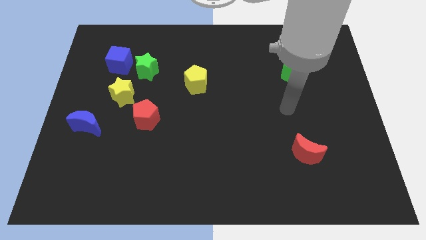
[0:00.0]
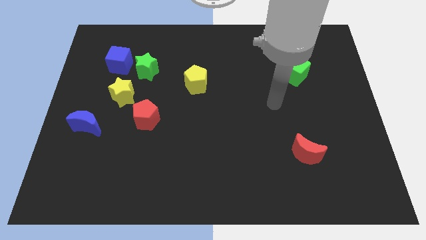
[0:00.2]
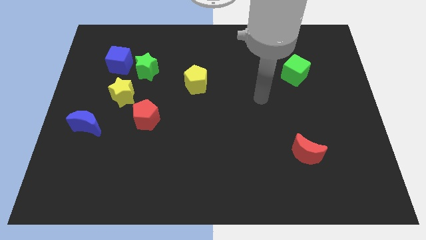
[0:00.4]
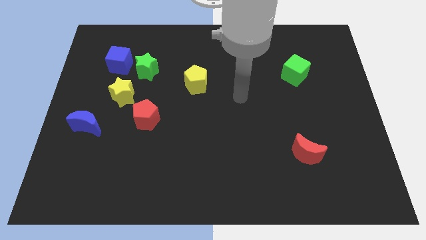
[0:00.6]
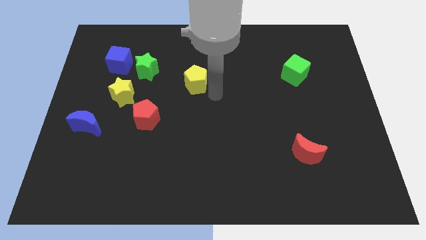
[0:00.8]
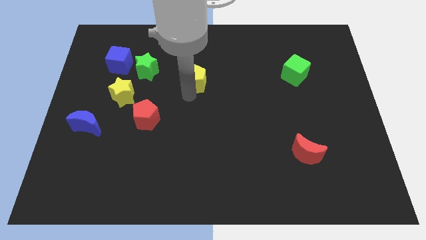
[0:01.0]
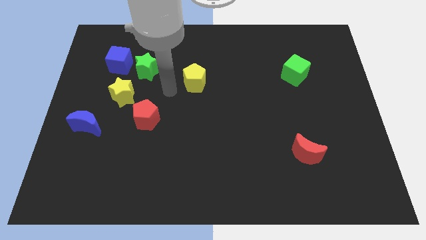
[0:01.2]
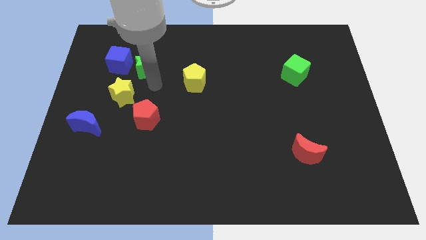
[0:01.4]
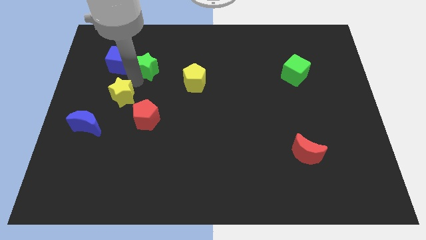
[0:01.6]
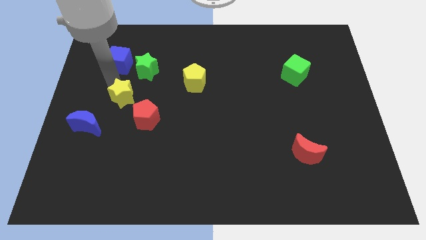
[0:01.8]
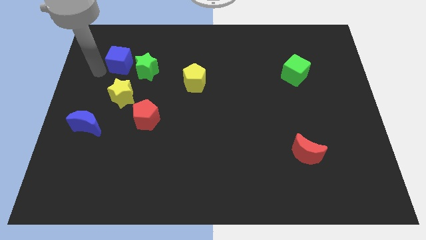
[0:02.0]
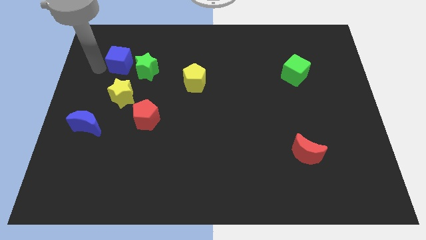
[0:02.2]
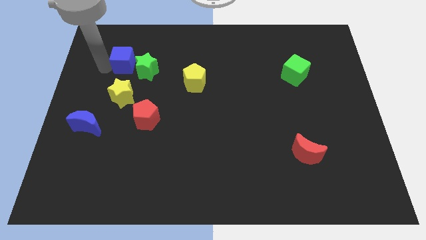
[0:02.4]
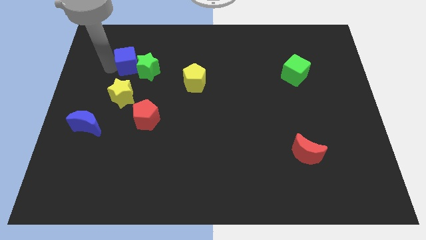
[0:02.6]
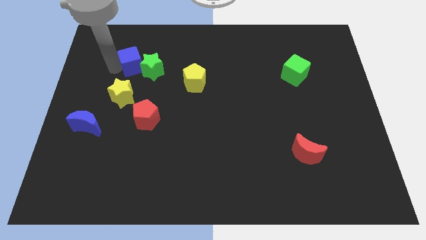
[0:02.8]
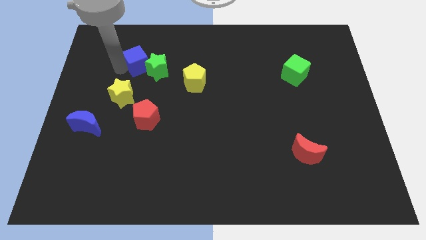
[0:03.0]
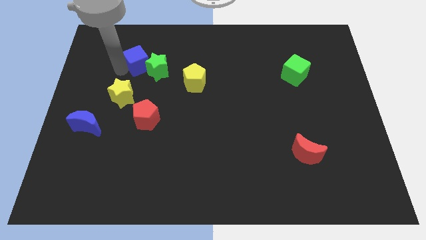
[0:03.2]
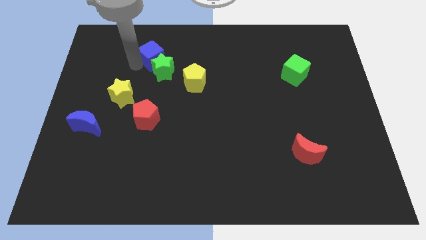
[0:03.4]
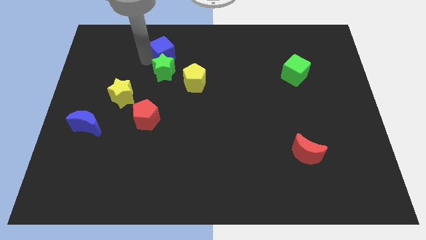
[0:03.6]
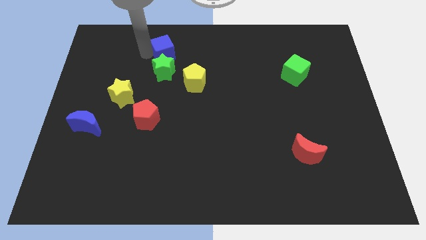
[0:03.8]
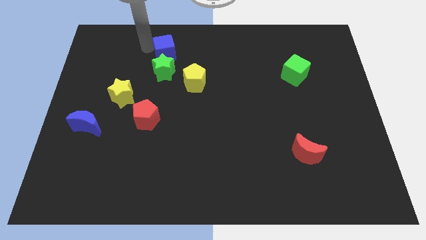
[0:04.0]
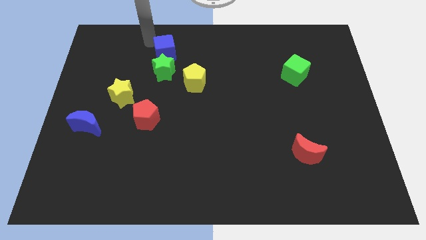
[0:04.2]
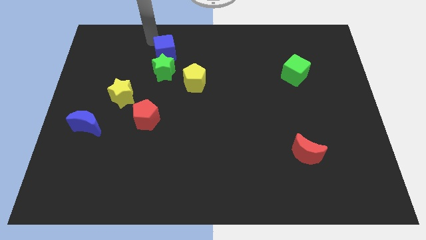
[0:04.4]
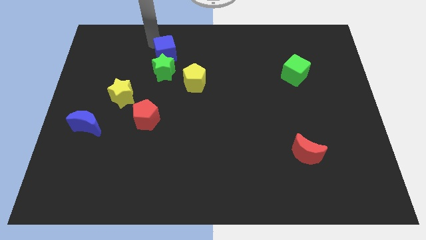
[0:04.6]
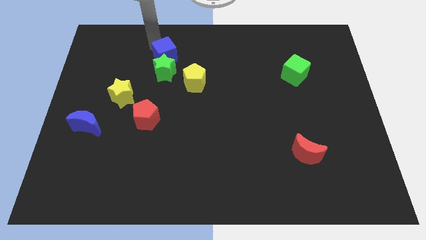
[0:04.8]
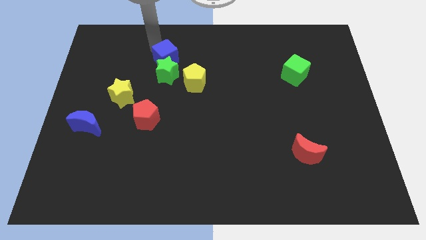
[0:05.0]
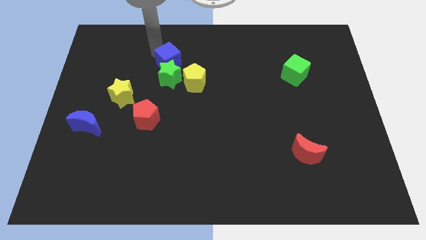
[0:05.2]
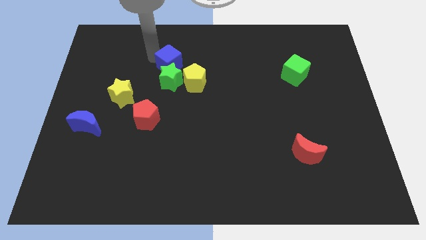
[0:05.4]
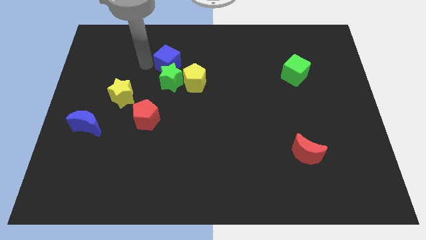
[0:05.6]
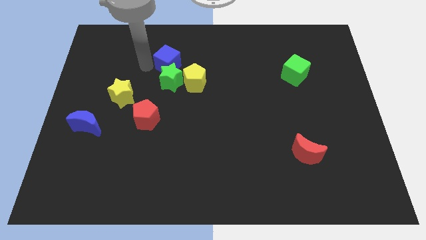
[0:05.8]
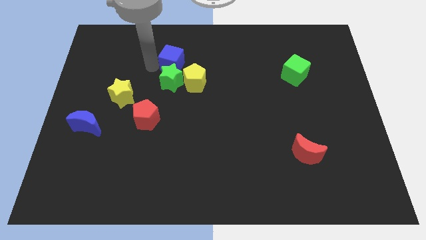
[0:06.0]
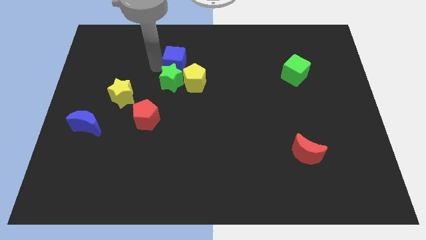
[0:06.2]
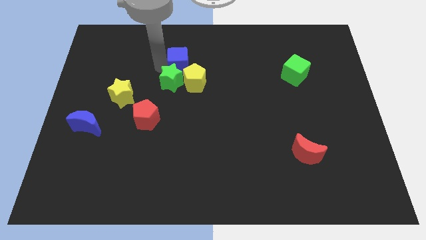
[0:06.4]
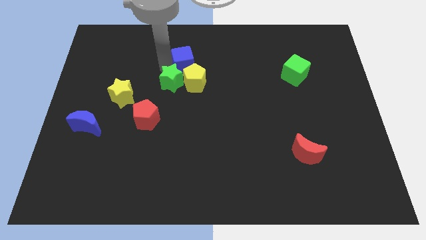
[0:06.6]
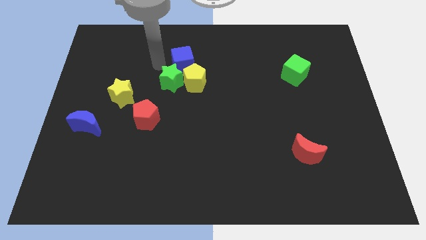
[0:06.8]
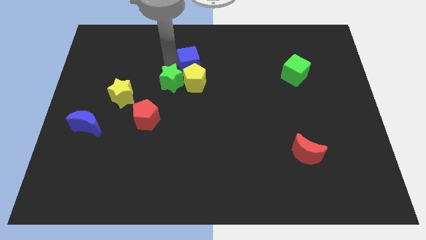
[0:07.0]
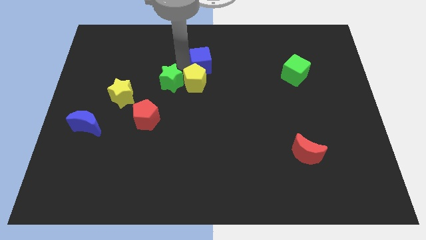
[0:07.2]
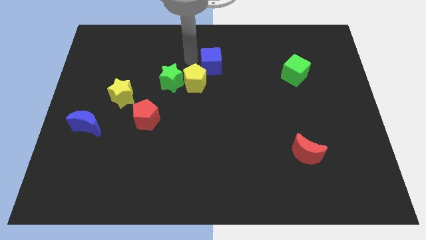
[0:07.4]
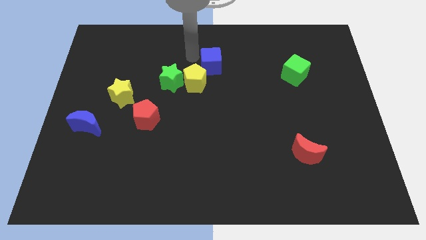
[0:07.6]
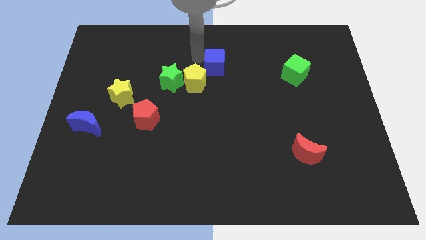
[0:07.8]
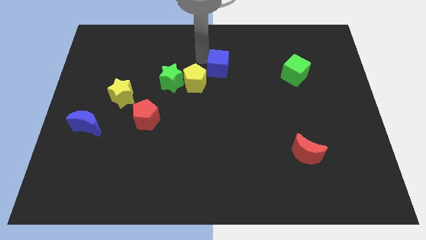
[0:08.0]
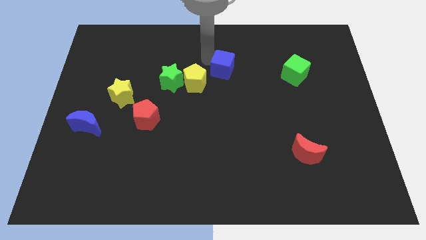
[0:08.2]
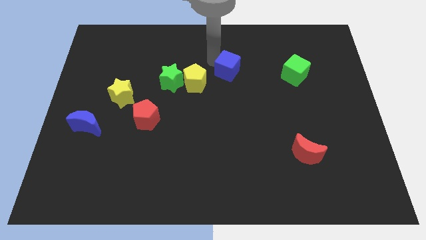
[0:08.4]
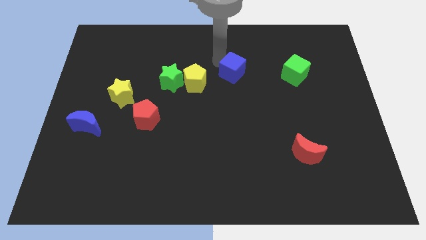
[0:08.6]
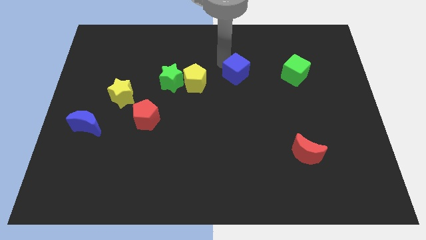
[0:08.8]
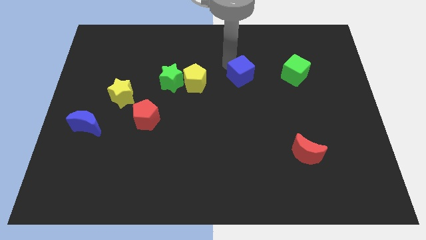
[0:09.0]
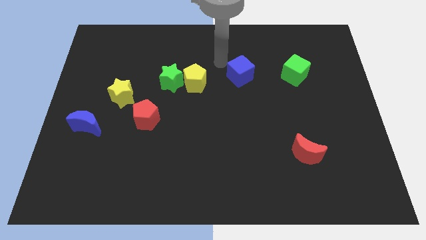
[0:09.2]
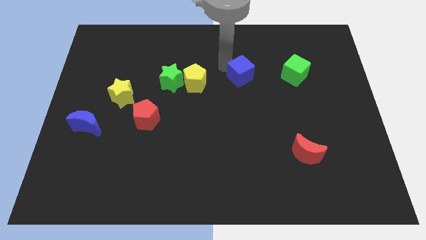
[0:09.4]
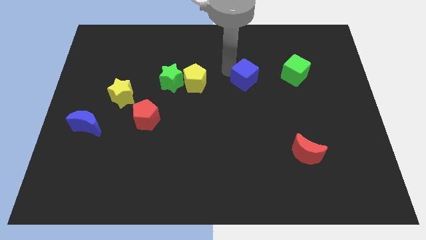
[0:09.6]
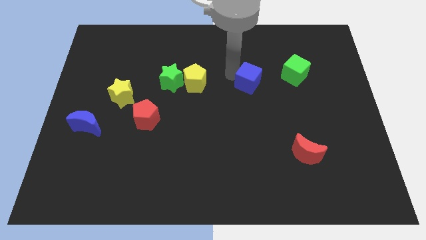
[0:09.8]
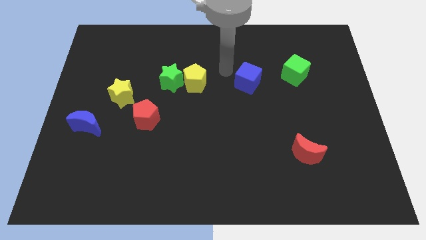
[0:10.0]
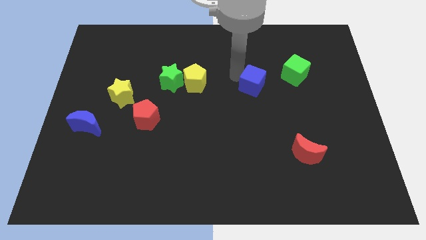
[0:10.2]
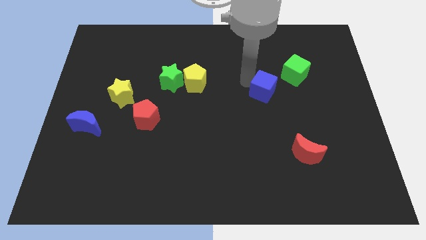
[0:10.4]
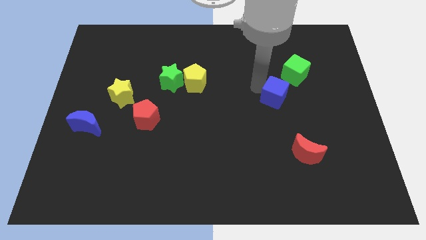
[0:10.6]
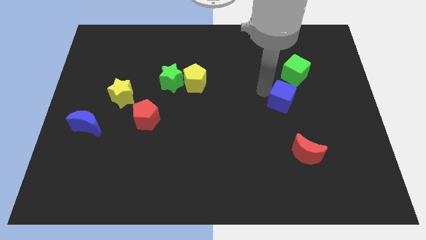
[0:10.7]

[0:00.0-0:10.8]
move the blue cube to the bottom of the green cube

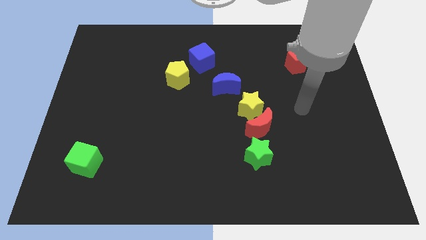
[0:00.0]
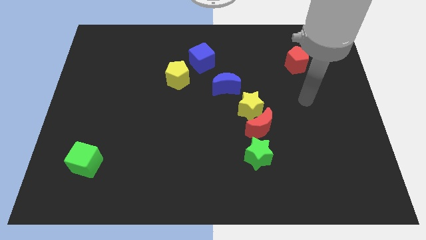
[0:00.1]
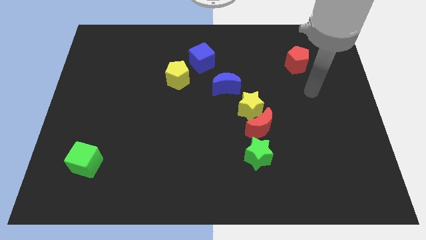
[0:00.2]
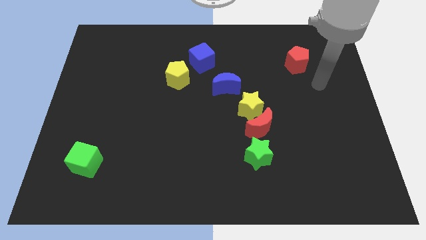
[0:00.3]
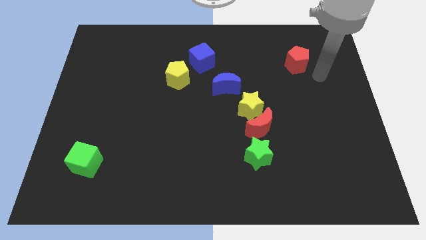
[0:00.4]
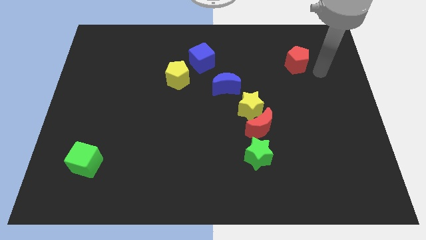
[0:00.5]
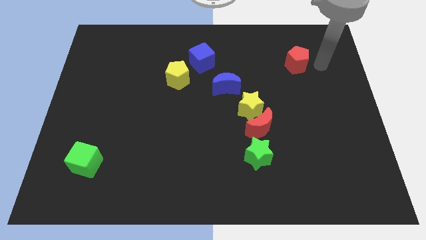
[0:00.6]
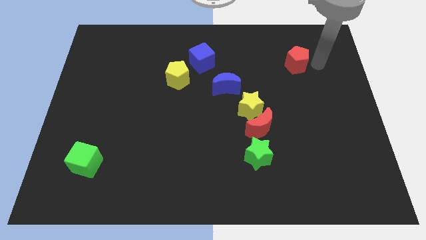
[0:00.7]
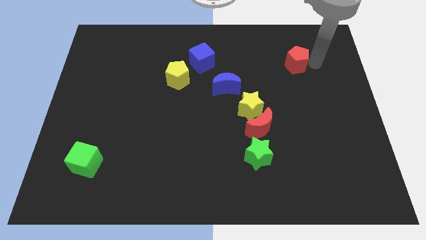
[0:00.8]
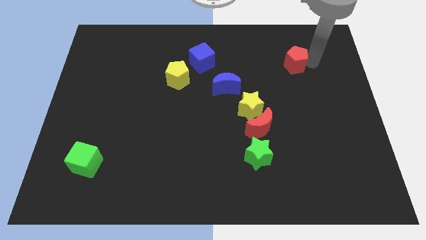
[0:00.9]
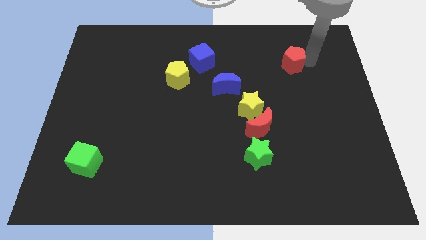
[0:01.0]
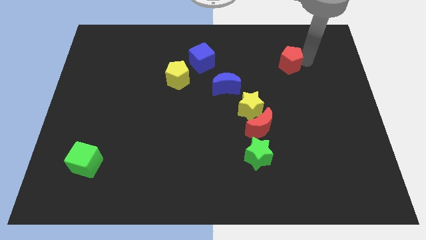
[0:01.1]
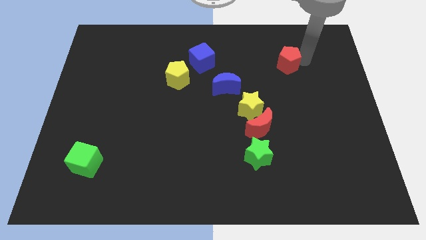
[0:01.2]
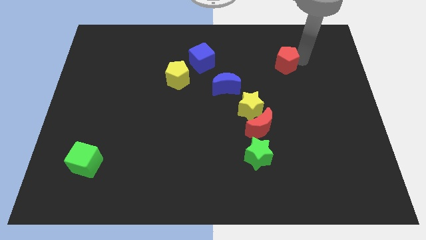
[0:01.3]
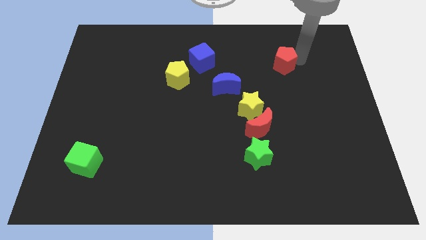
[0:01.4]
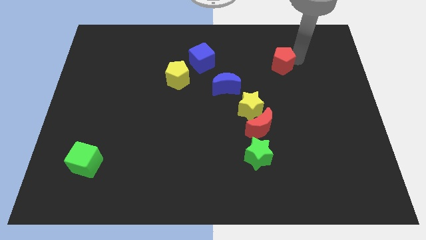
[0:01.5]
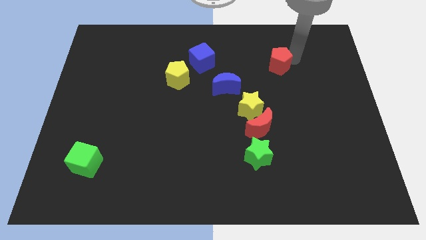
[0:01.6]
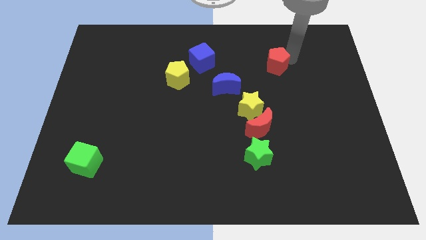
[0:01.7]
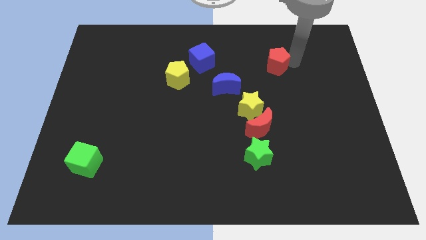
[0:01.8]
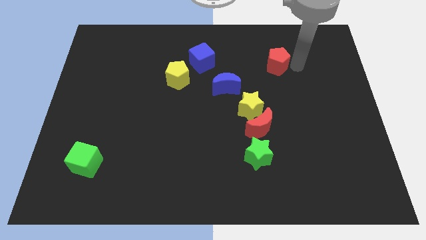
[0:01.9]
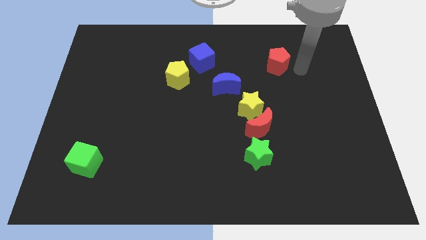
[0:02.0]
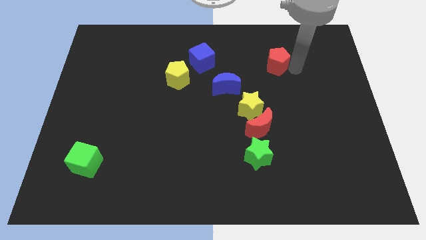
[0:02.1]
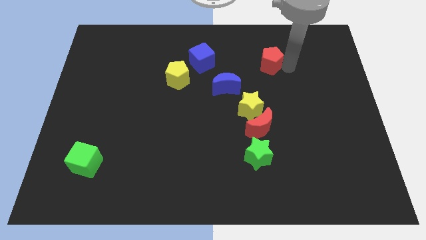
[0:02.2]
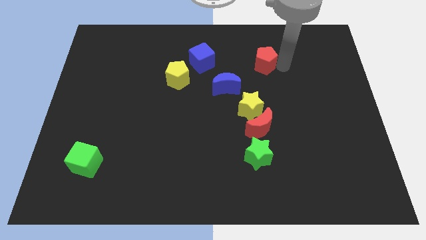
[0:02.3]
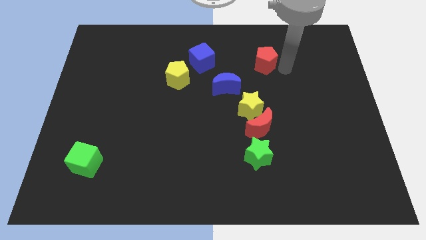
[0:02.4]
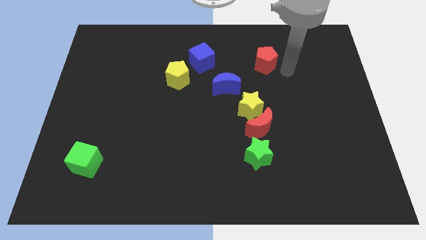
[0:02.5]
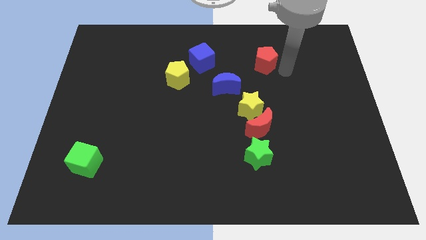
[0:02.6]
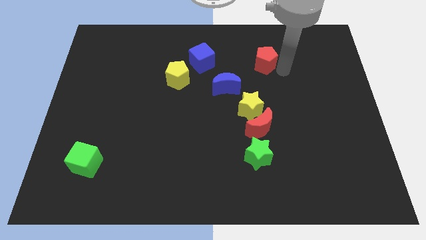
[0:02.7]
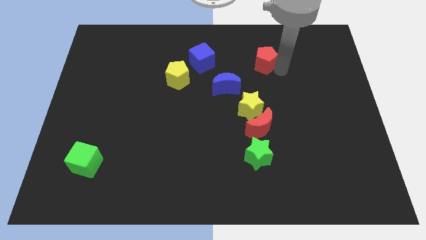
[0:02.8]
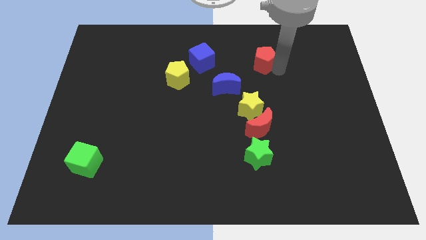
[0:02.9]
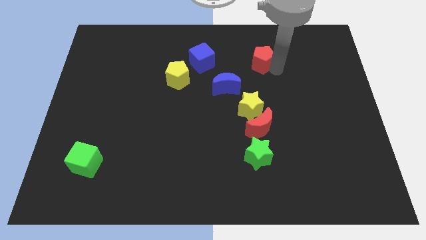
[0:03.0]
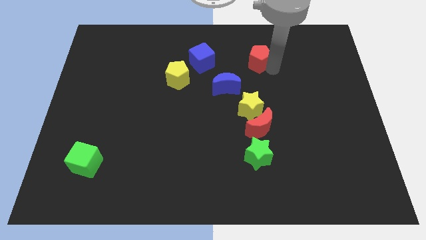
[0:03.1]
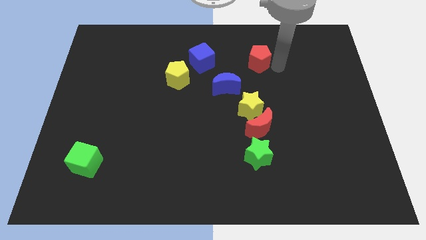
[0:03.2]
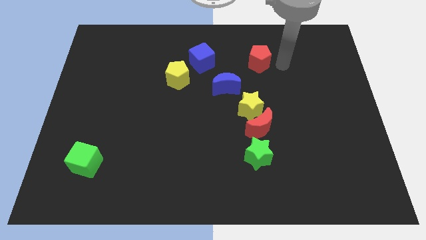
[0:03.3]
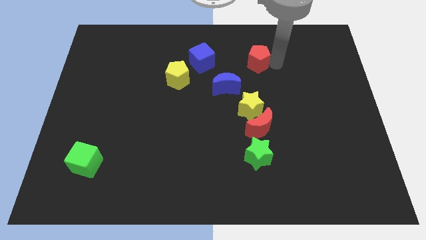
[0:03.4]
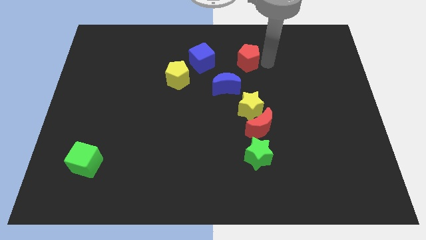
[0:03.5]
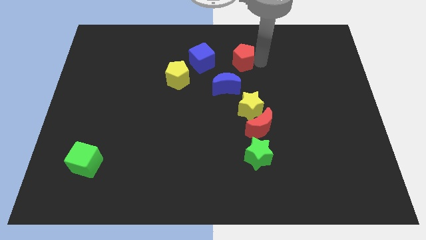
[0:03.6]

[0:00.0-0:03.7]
put the red pentagon to the top side of the blue moon
